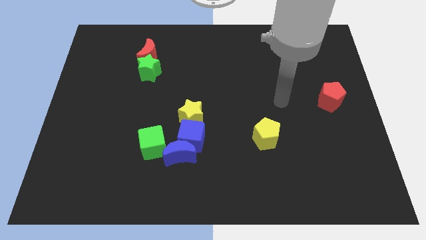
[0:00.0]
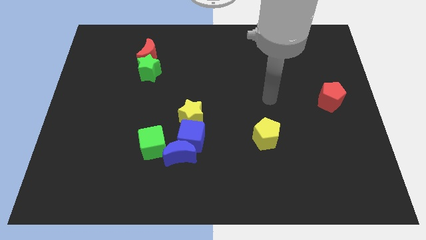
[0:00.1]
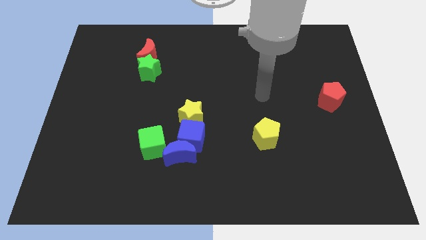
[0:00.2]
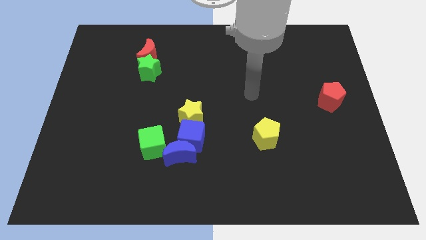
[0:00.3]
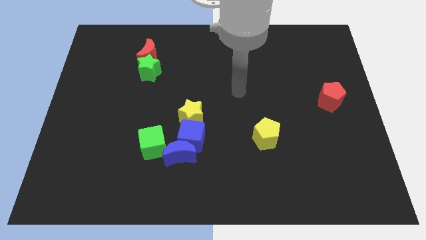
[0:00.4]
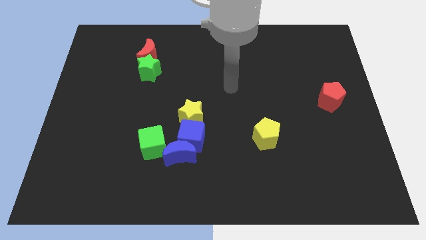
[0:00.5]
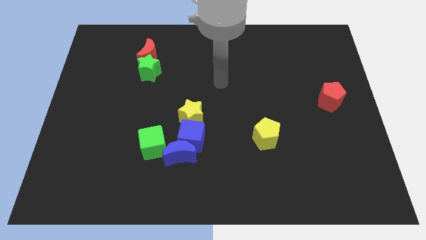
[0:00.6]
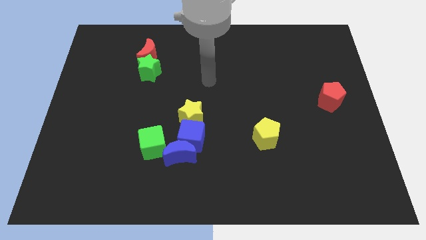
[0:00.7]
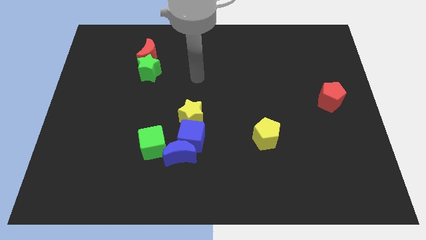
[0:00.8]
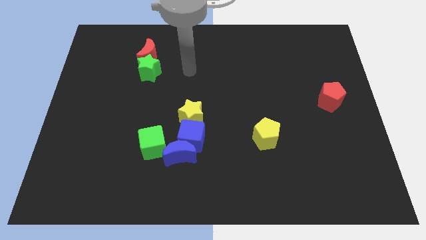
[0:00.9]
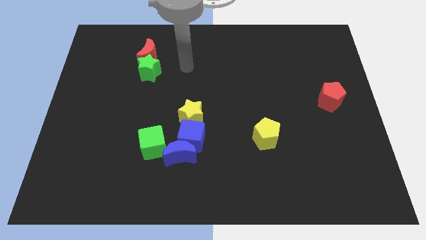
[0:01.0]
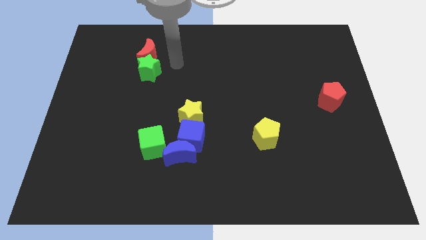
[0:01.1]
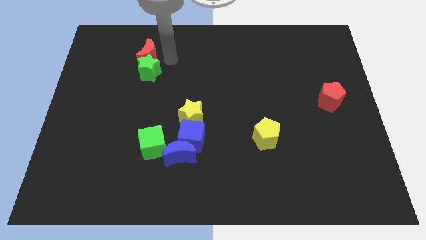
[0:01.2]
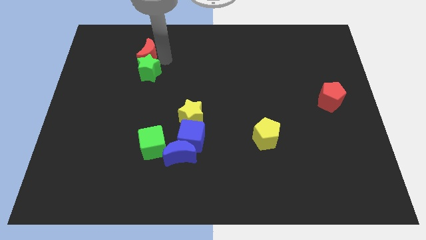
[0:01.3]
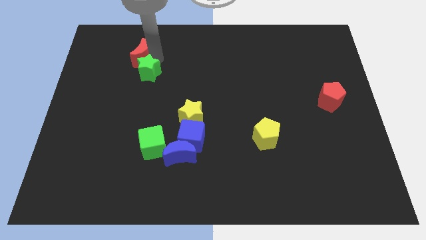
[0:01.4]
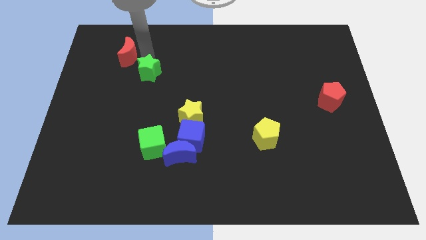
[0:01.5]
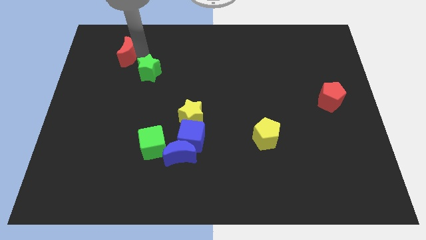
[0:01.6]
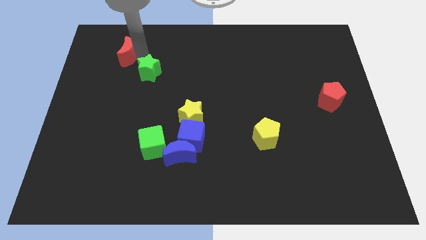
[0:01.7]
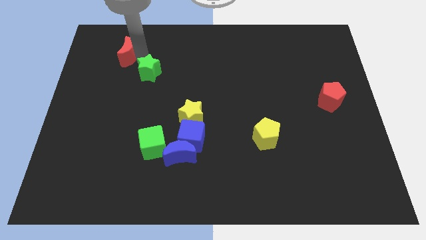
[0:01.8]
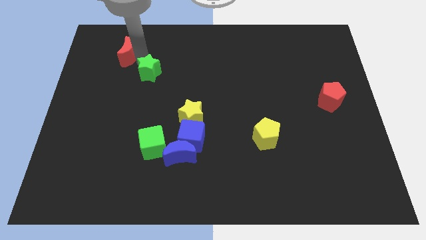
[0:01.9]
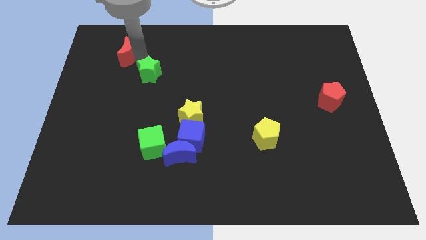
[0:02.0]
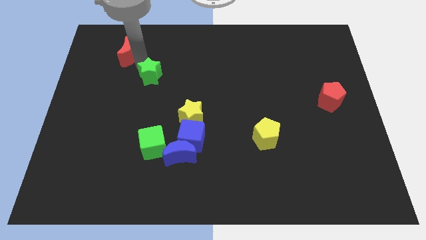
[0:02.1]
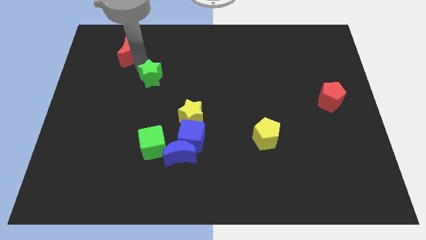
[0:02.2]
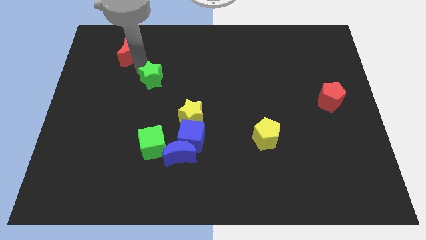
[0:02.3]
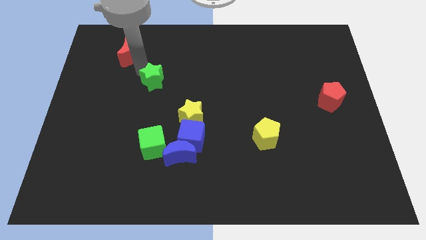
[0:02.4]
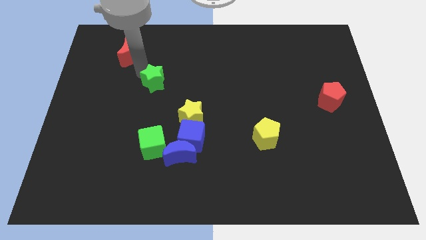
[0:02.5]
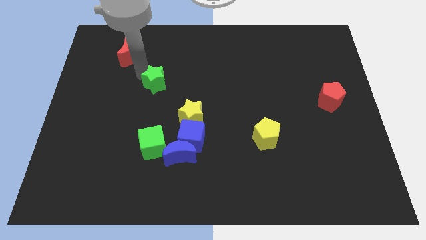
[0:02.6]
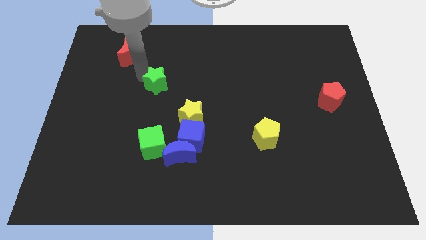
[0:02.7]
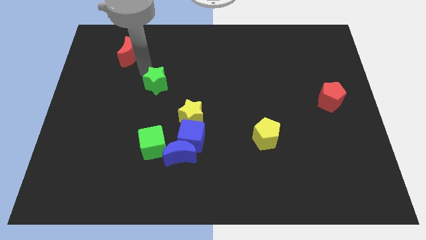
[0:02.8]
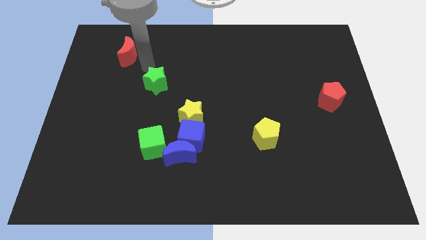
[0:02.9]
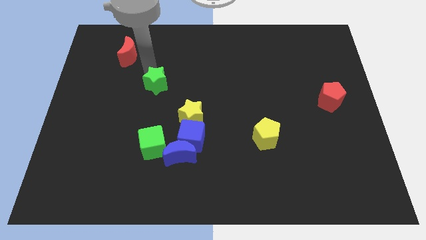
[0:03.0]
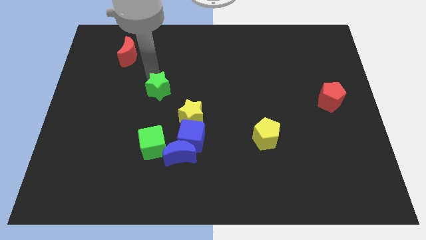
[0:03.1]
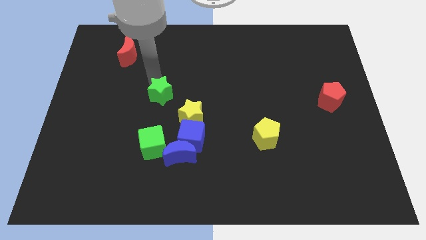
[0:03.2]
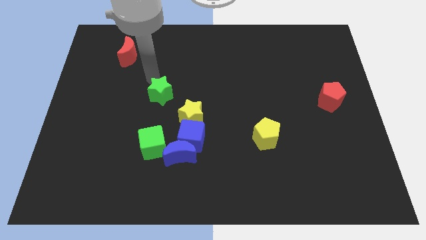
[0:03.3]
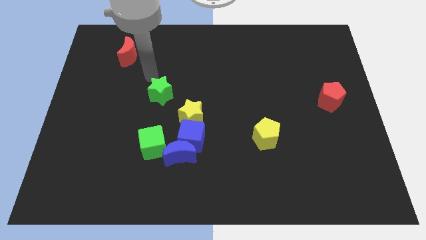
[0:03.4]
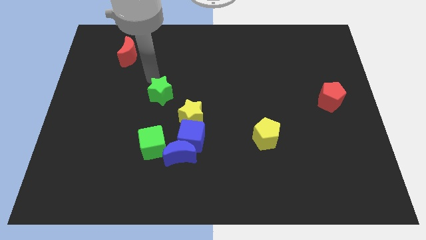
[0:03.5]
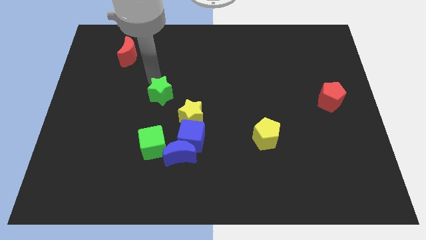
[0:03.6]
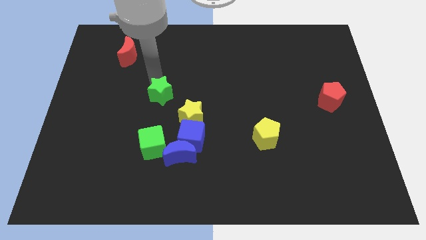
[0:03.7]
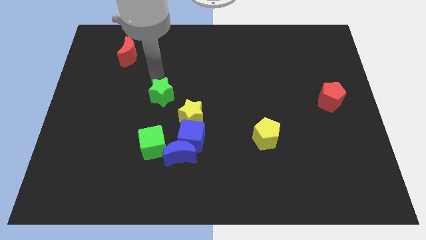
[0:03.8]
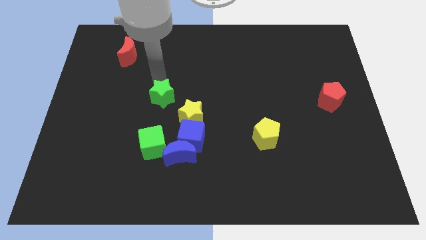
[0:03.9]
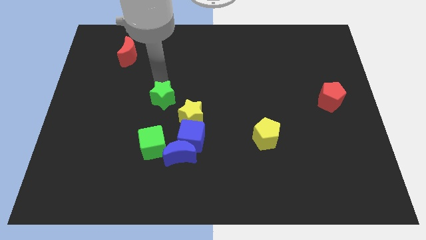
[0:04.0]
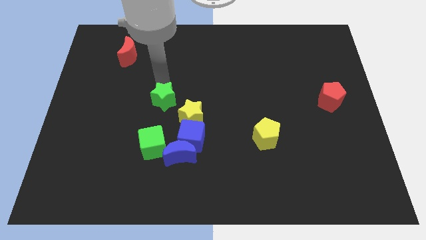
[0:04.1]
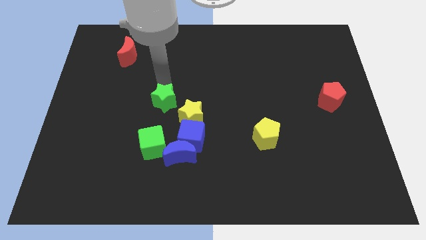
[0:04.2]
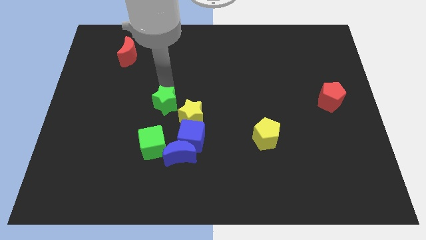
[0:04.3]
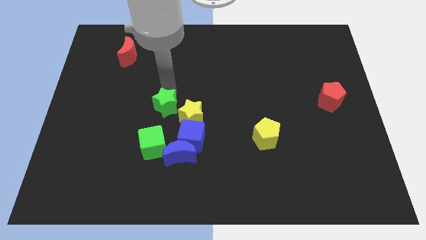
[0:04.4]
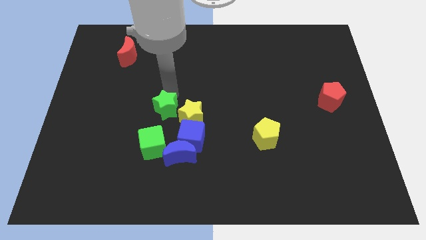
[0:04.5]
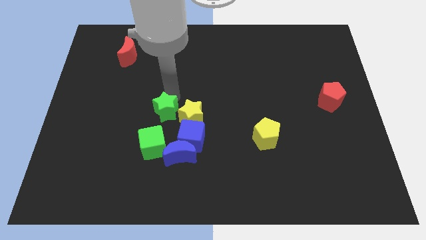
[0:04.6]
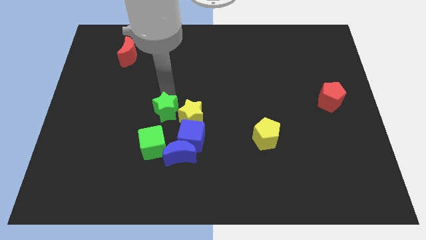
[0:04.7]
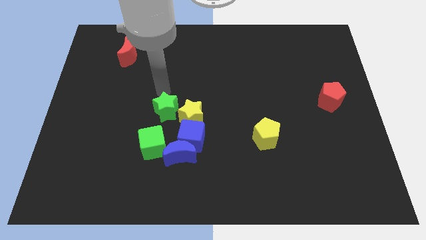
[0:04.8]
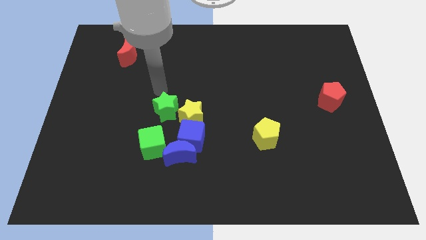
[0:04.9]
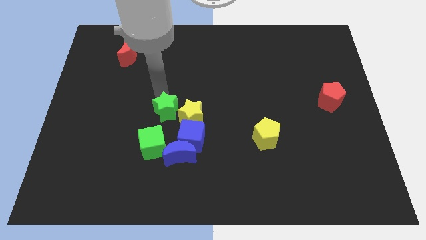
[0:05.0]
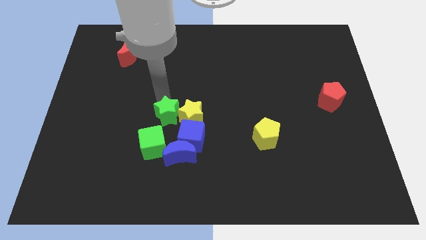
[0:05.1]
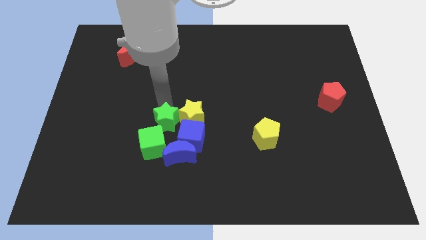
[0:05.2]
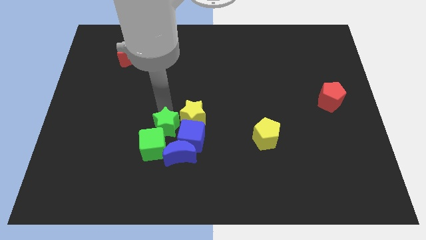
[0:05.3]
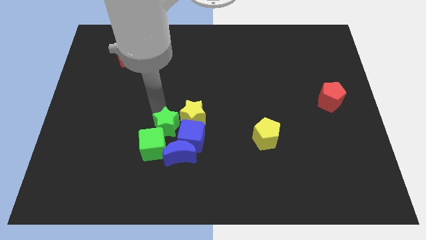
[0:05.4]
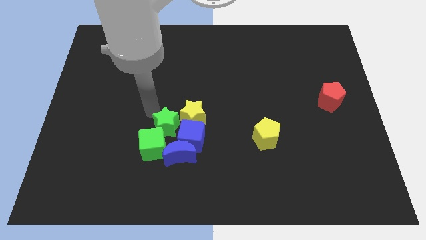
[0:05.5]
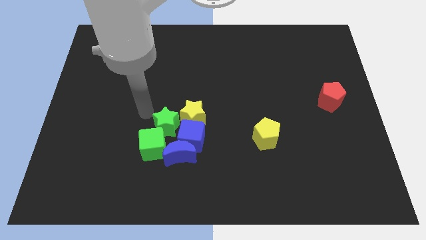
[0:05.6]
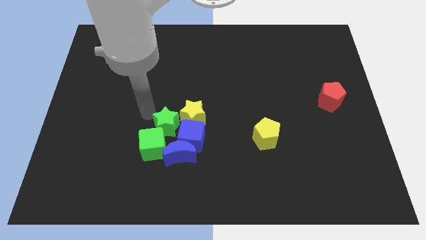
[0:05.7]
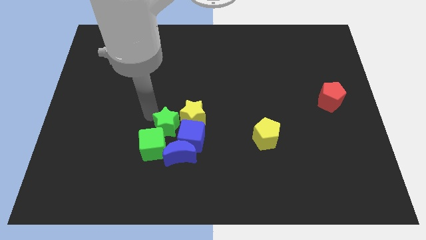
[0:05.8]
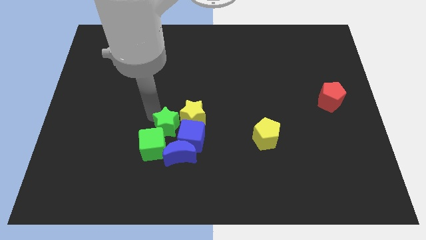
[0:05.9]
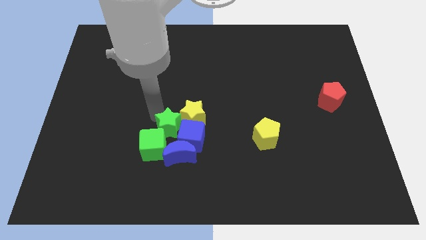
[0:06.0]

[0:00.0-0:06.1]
move the green star to the blue cube

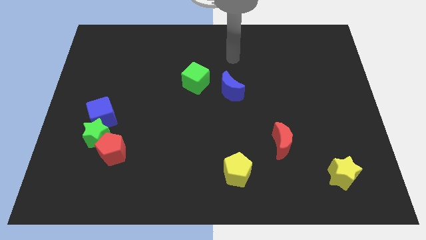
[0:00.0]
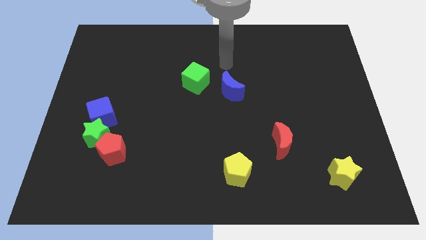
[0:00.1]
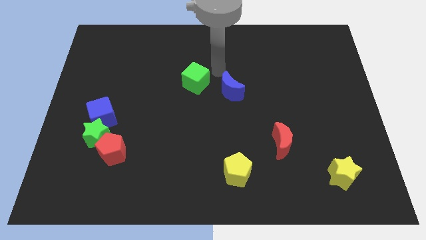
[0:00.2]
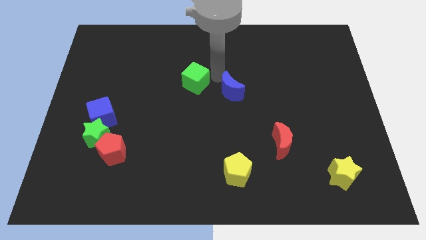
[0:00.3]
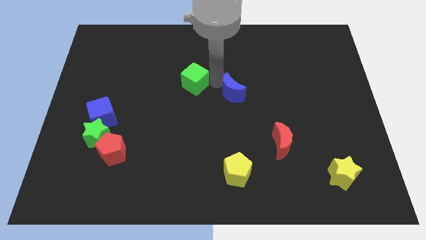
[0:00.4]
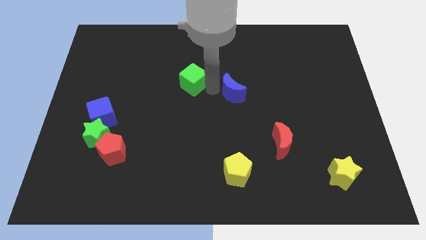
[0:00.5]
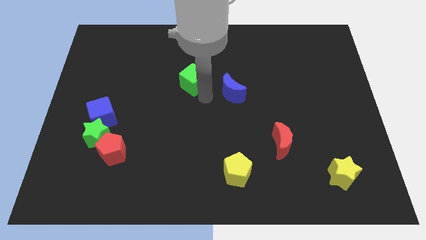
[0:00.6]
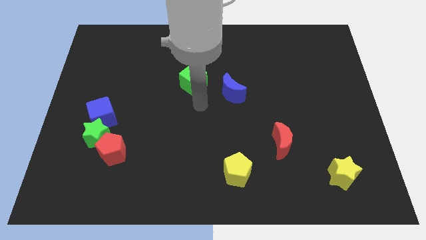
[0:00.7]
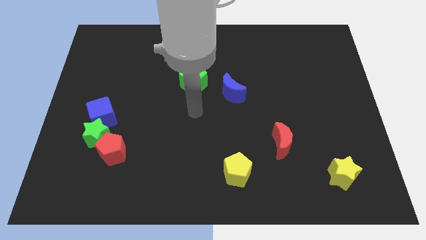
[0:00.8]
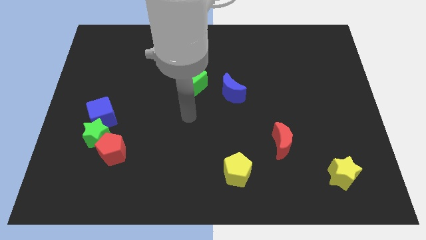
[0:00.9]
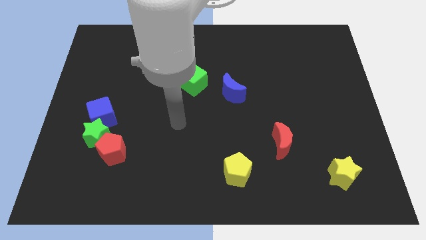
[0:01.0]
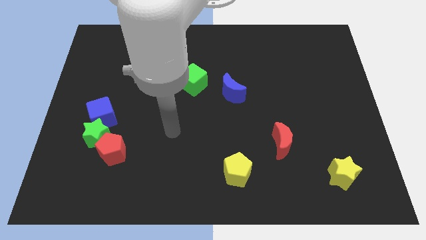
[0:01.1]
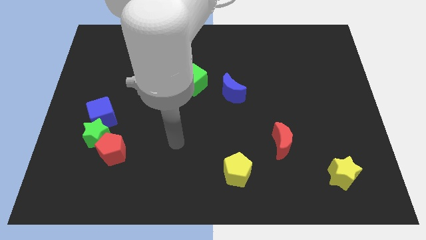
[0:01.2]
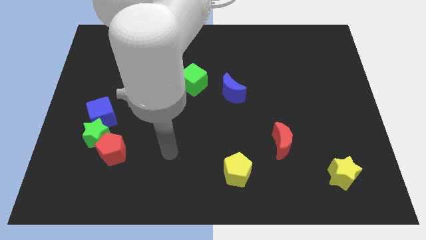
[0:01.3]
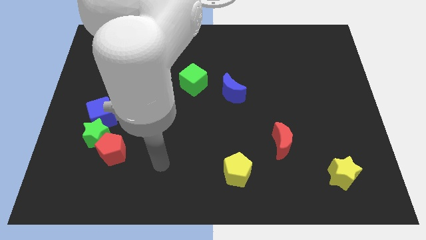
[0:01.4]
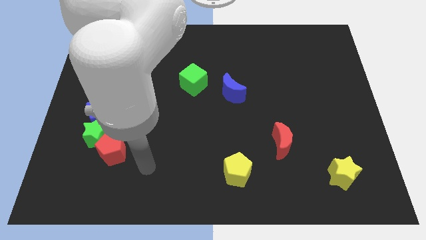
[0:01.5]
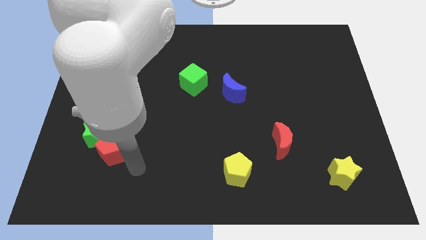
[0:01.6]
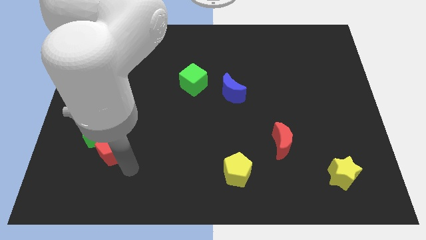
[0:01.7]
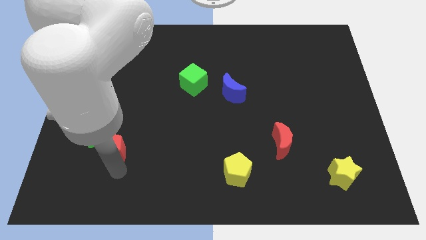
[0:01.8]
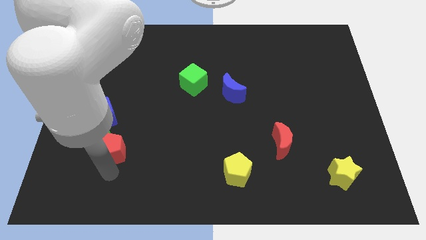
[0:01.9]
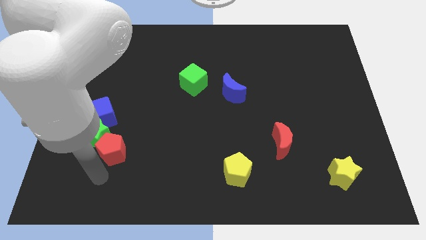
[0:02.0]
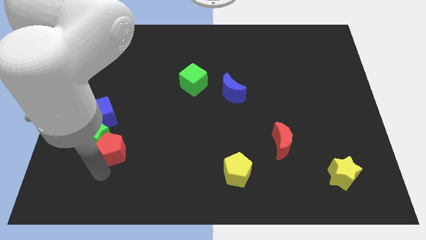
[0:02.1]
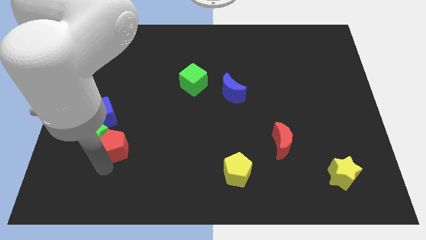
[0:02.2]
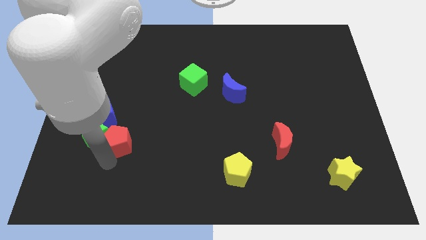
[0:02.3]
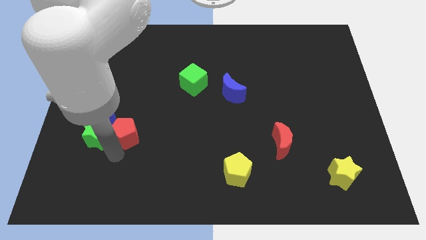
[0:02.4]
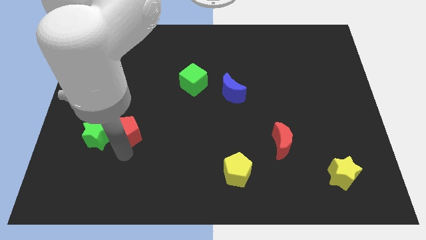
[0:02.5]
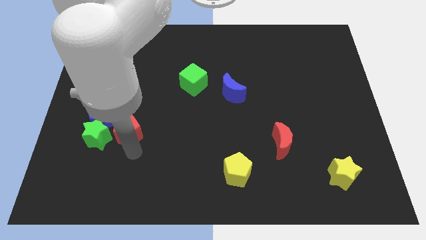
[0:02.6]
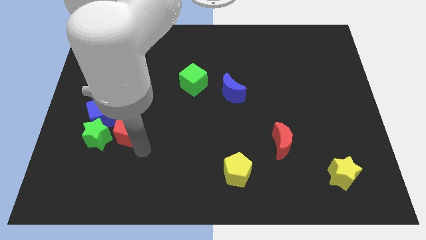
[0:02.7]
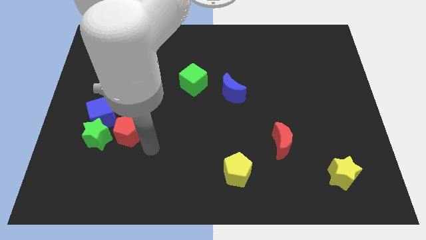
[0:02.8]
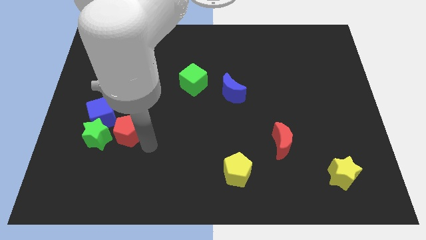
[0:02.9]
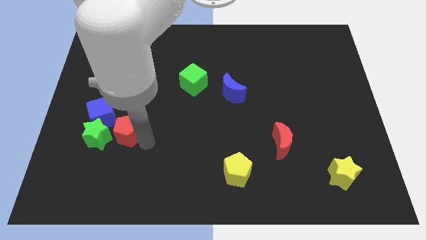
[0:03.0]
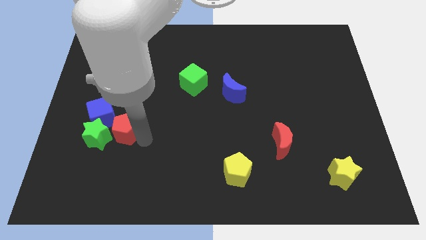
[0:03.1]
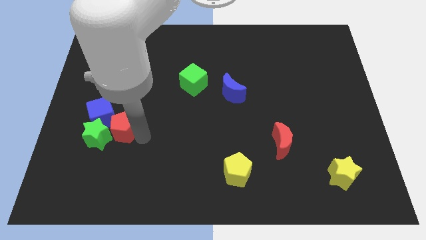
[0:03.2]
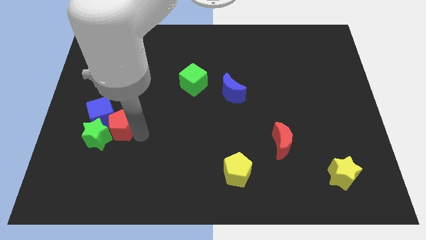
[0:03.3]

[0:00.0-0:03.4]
slide the red pentagon towards the blue cube
